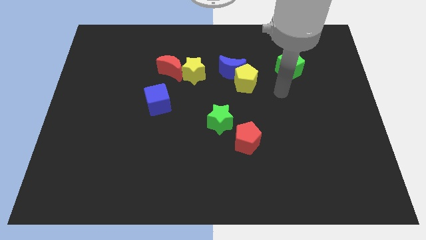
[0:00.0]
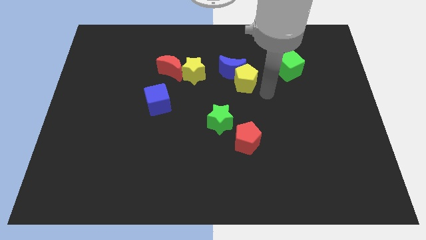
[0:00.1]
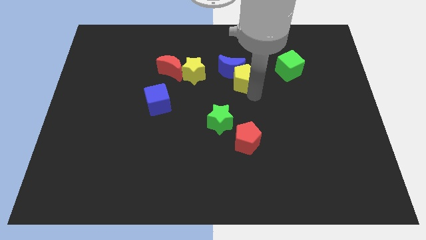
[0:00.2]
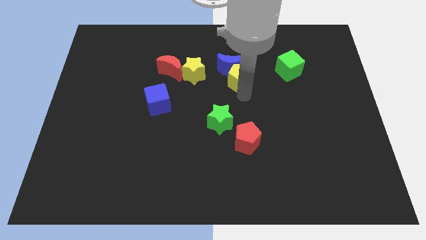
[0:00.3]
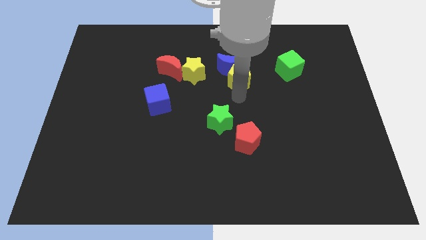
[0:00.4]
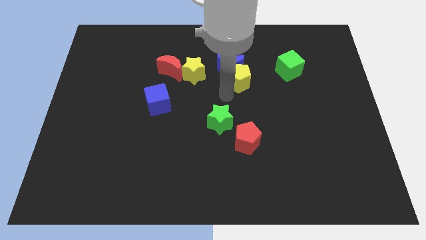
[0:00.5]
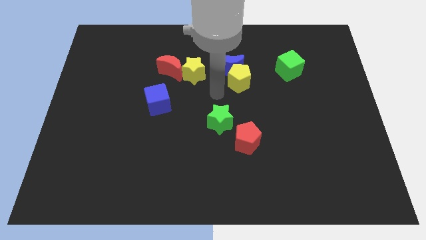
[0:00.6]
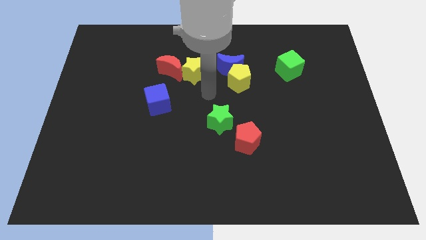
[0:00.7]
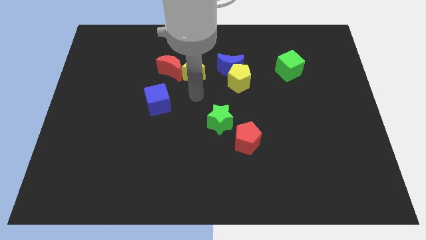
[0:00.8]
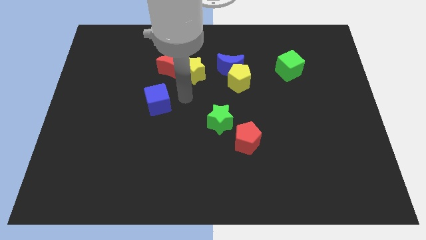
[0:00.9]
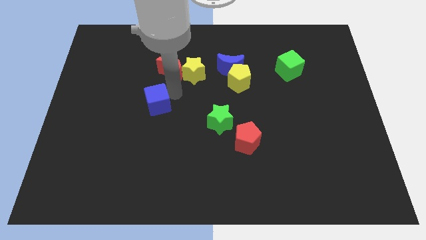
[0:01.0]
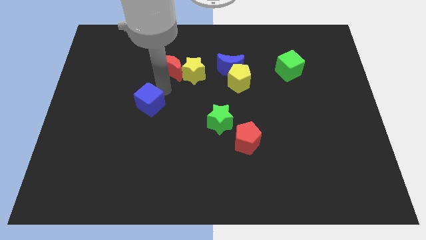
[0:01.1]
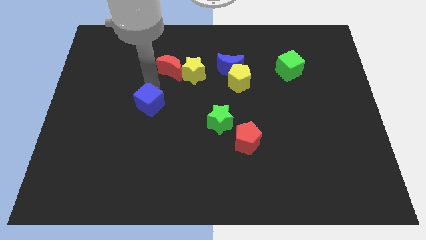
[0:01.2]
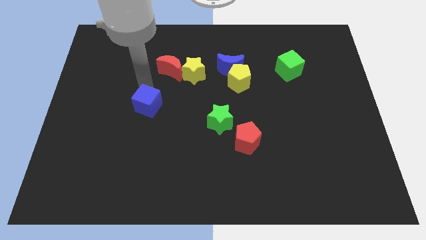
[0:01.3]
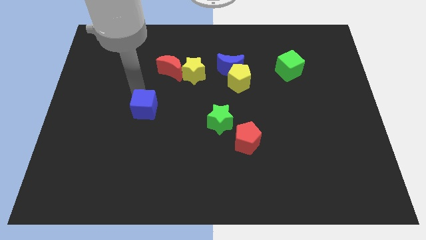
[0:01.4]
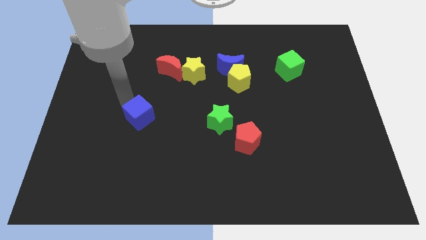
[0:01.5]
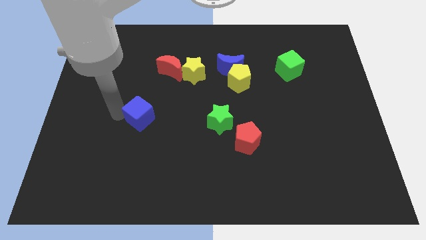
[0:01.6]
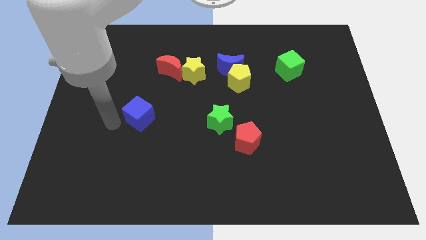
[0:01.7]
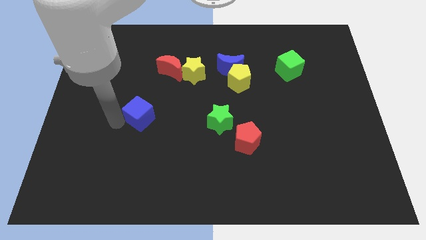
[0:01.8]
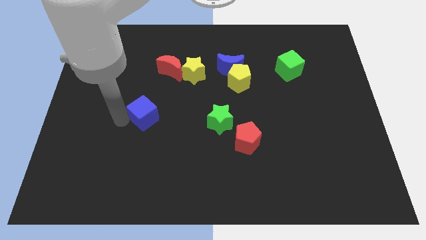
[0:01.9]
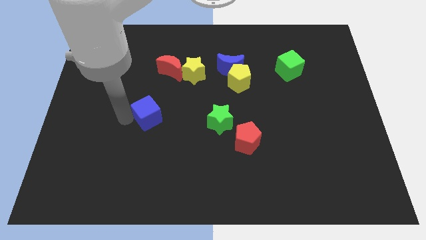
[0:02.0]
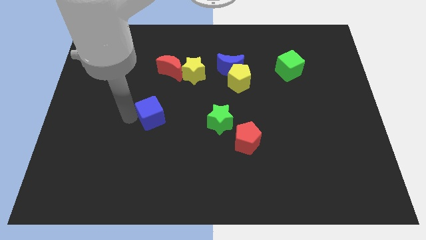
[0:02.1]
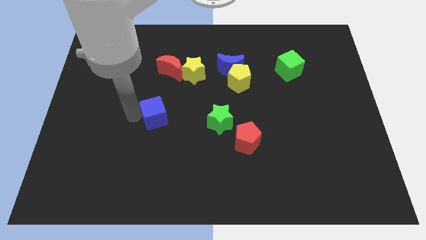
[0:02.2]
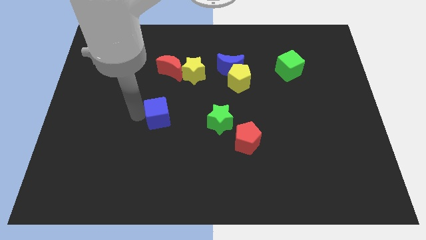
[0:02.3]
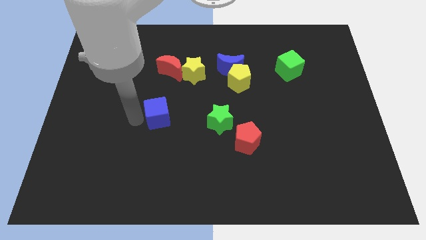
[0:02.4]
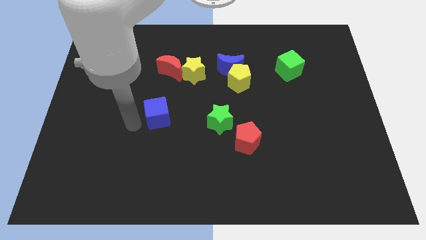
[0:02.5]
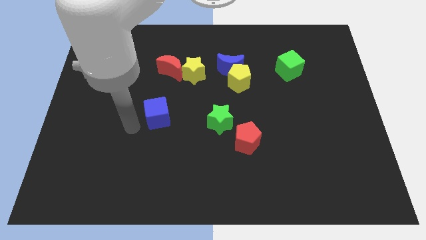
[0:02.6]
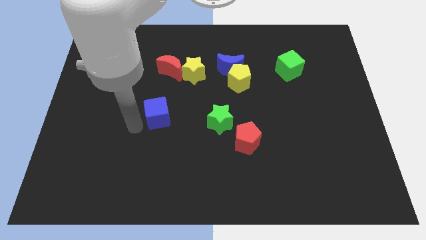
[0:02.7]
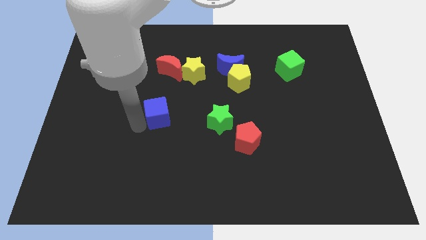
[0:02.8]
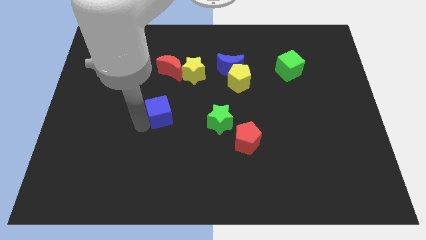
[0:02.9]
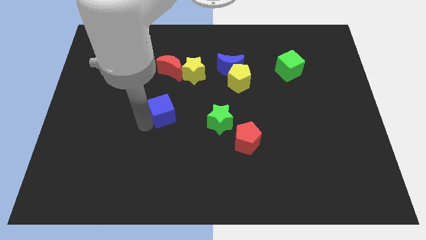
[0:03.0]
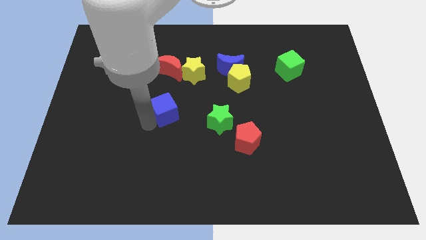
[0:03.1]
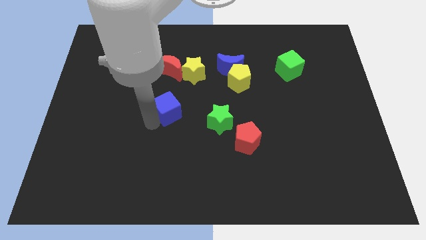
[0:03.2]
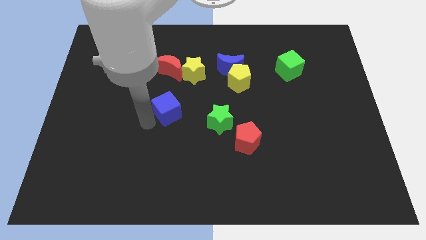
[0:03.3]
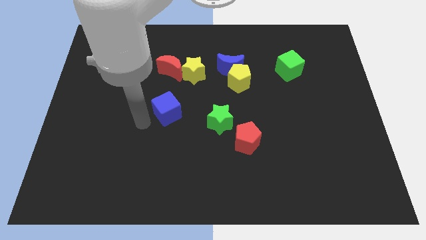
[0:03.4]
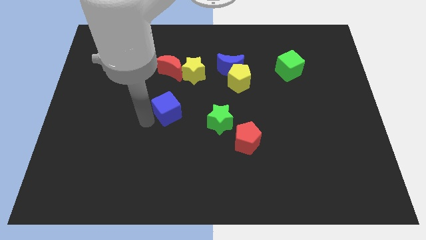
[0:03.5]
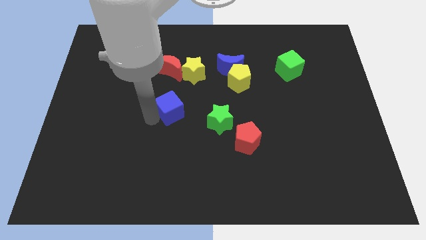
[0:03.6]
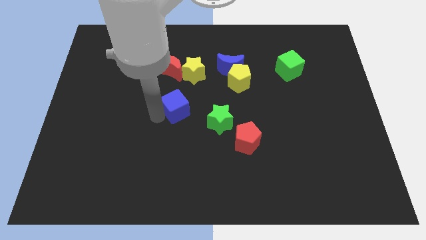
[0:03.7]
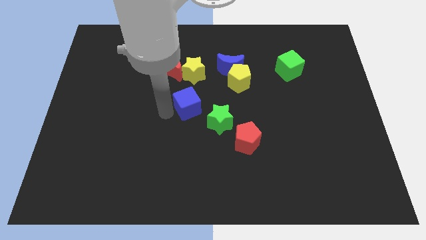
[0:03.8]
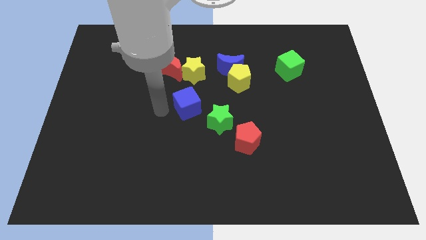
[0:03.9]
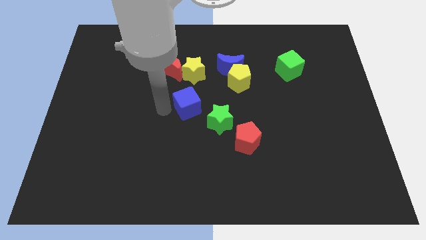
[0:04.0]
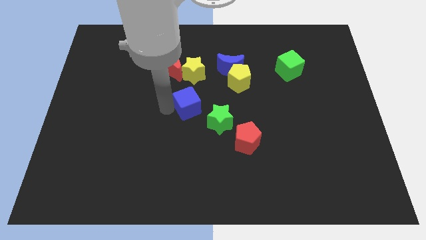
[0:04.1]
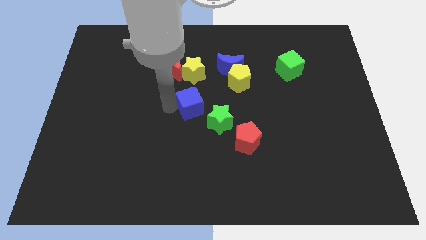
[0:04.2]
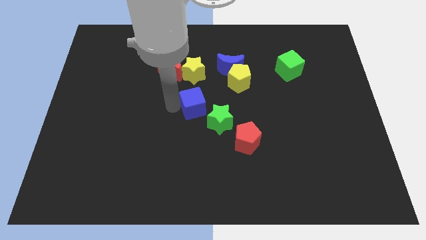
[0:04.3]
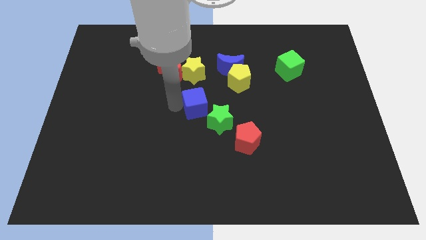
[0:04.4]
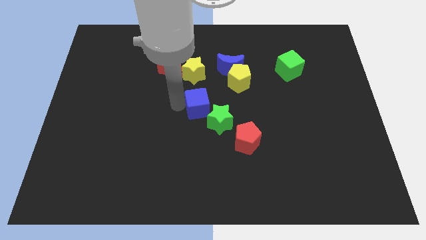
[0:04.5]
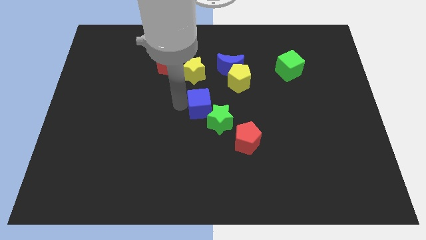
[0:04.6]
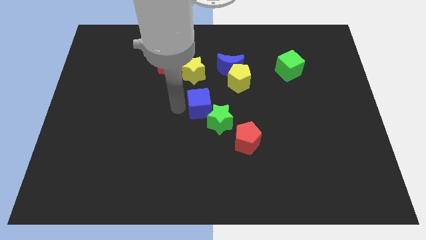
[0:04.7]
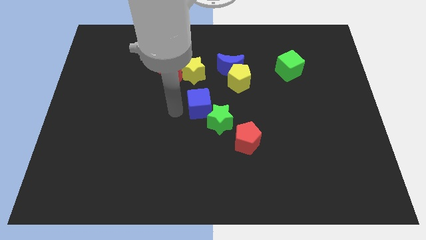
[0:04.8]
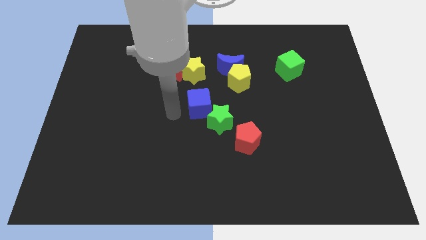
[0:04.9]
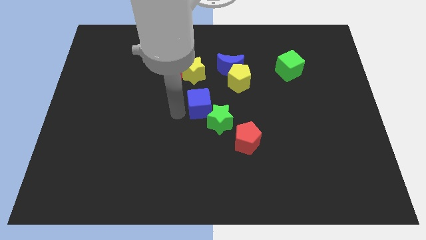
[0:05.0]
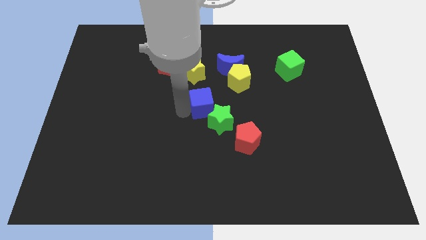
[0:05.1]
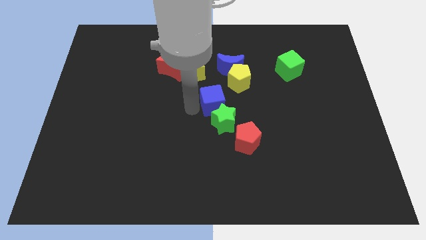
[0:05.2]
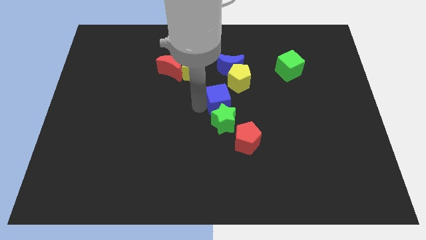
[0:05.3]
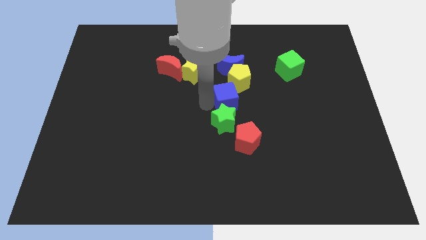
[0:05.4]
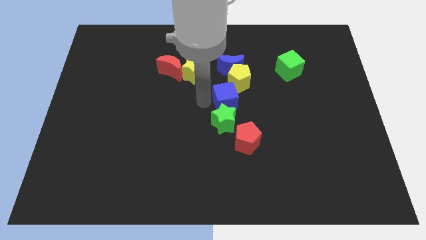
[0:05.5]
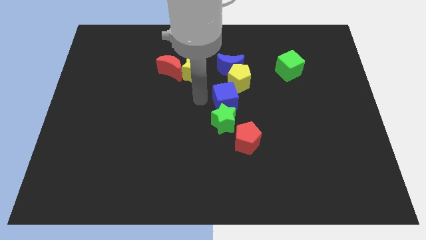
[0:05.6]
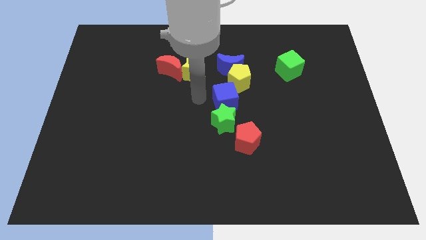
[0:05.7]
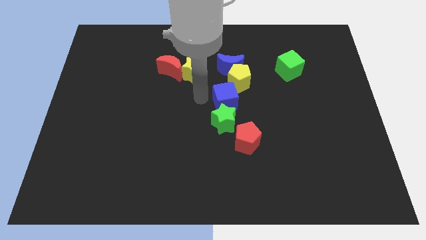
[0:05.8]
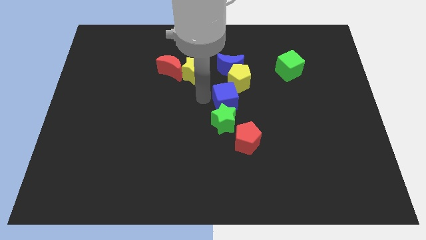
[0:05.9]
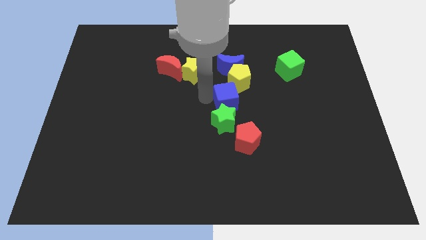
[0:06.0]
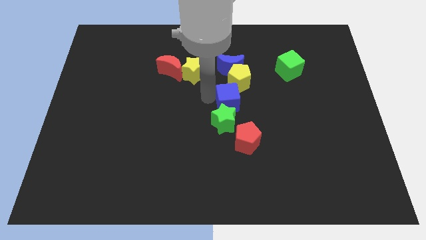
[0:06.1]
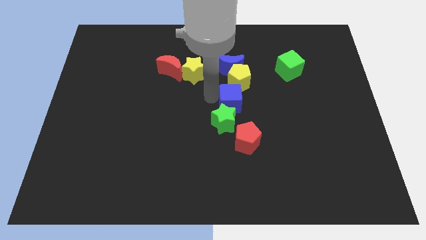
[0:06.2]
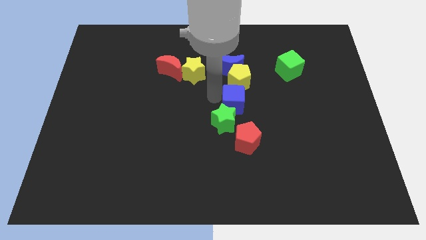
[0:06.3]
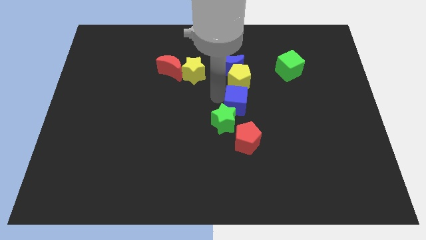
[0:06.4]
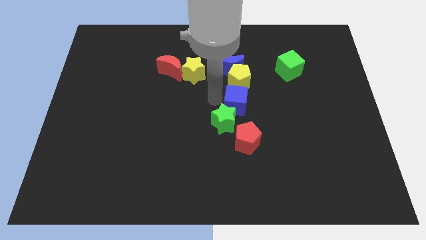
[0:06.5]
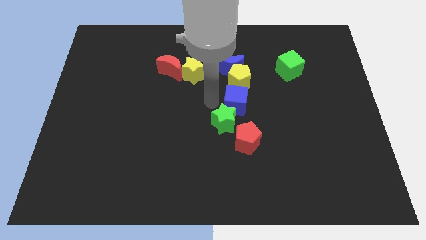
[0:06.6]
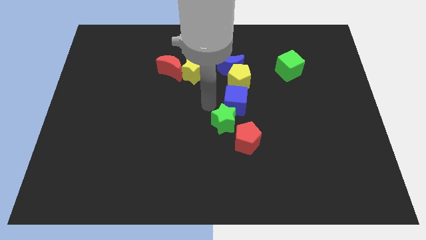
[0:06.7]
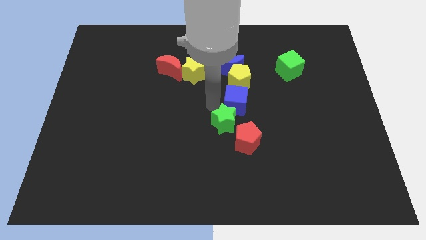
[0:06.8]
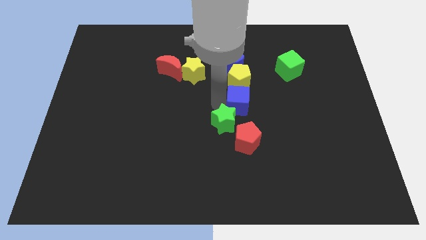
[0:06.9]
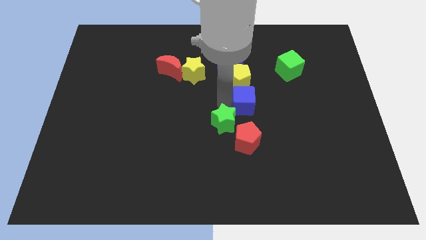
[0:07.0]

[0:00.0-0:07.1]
put the blue cube diagonally down and to the right of the yellow pentagon

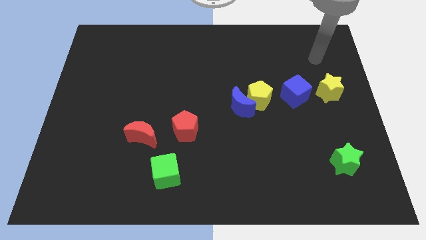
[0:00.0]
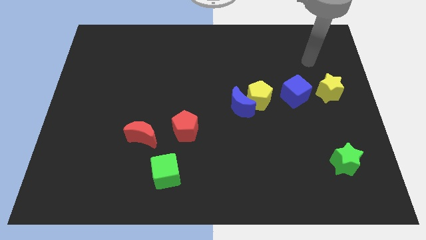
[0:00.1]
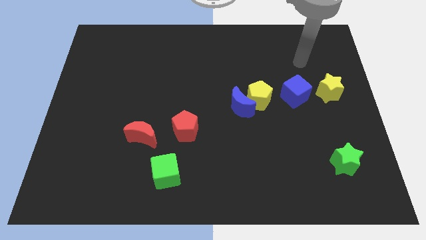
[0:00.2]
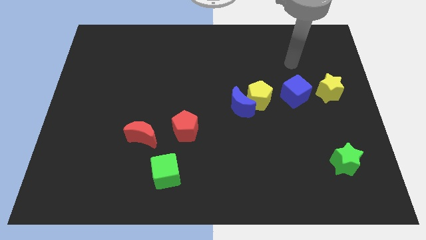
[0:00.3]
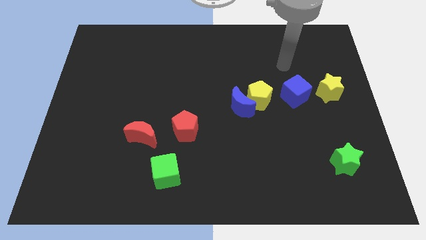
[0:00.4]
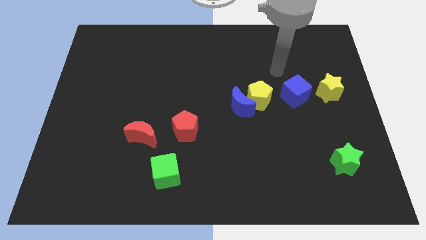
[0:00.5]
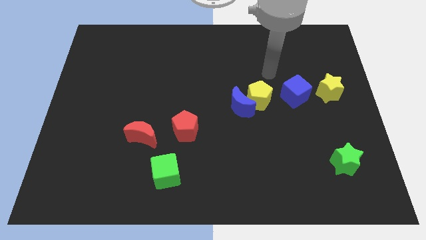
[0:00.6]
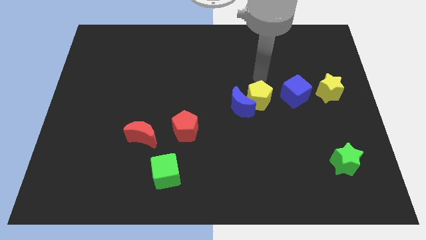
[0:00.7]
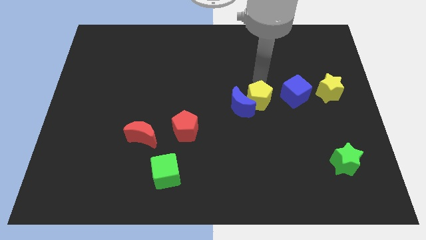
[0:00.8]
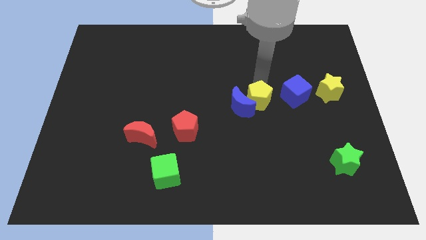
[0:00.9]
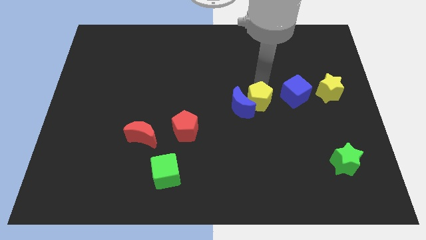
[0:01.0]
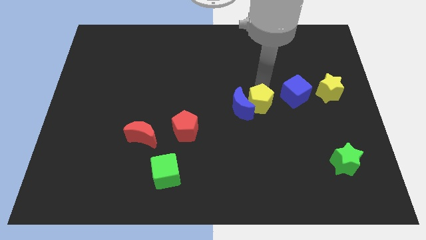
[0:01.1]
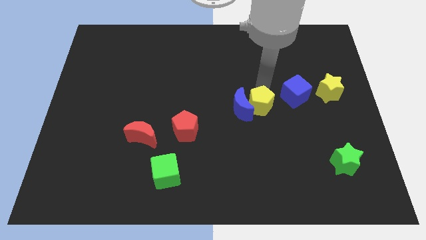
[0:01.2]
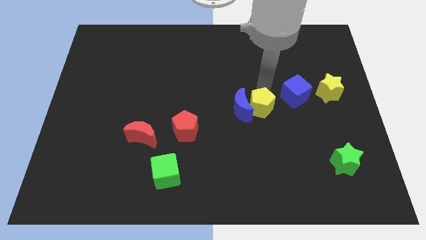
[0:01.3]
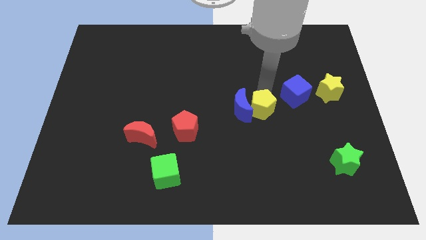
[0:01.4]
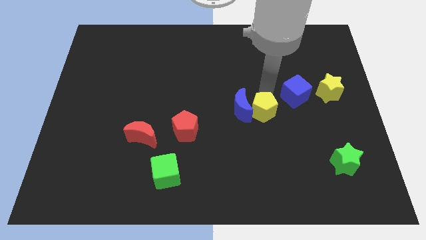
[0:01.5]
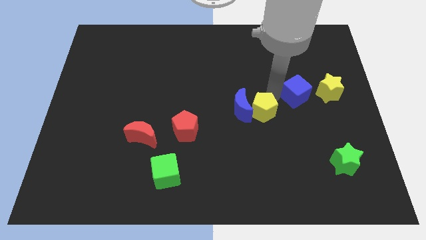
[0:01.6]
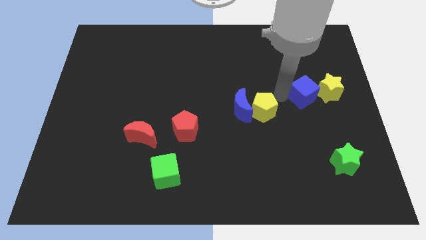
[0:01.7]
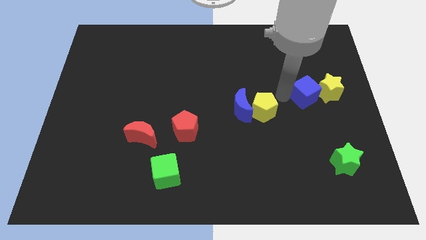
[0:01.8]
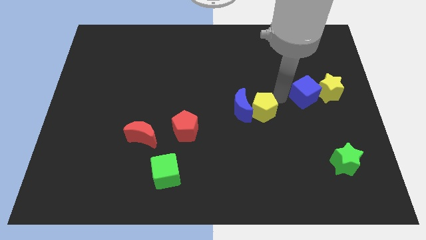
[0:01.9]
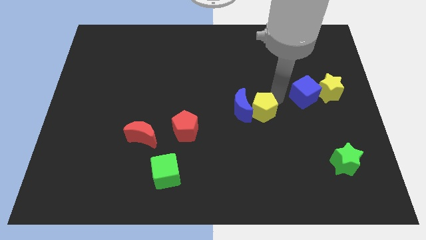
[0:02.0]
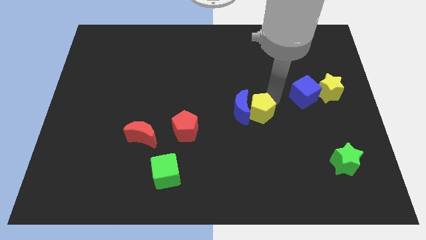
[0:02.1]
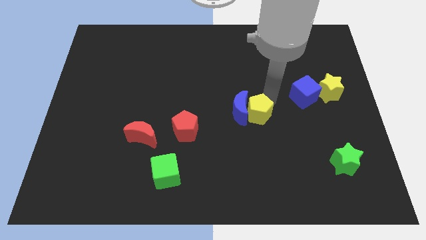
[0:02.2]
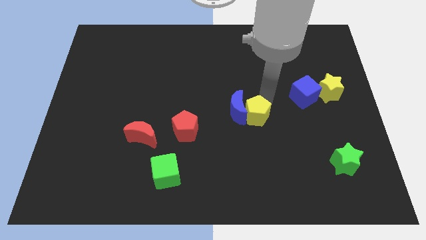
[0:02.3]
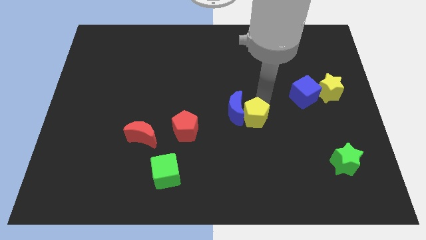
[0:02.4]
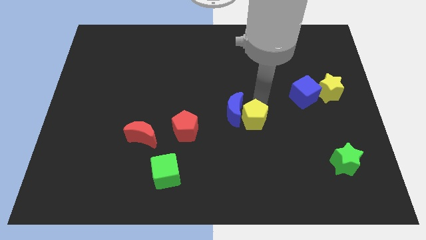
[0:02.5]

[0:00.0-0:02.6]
put the yellow pentagon to the right side of the red pentagon
